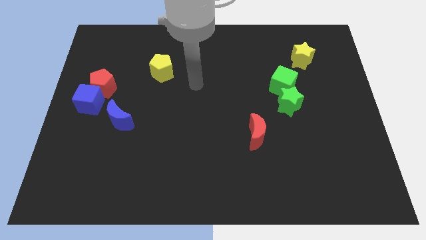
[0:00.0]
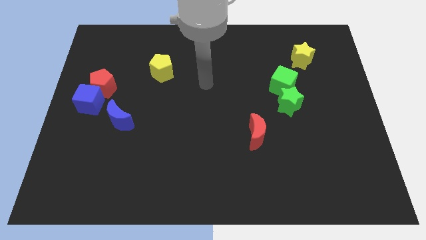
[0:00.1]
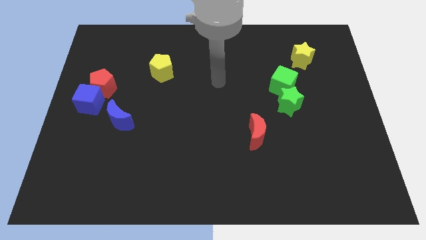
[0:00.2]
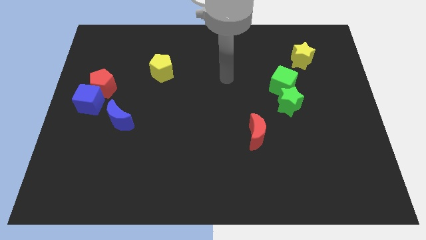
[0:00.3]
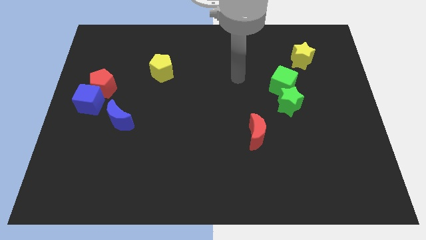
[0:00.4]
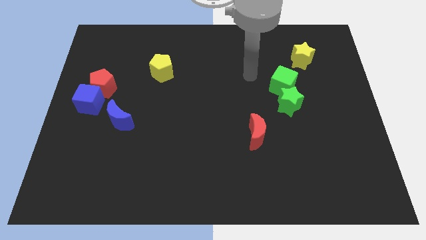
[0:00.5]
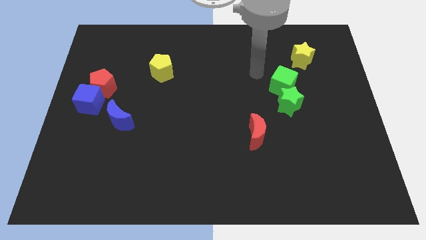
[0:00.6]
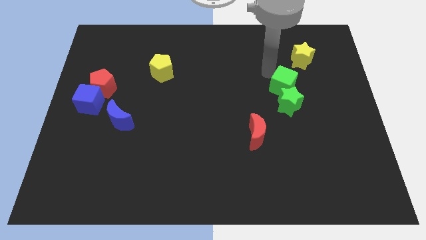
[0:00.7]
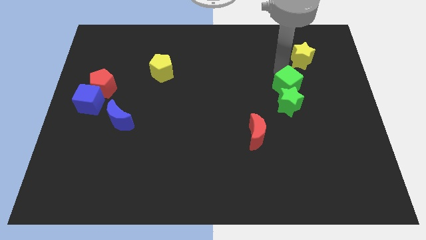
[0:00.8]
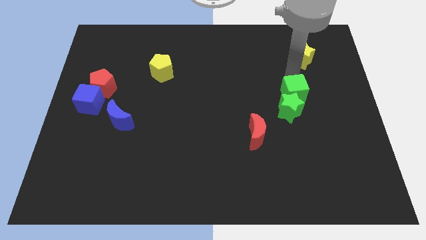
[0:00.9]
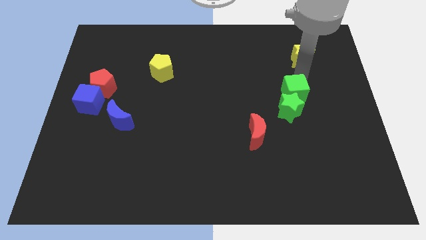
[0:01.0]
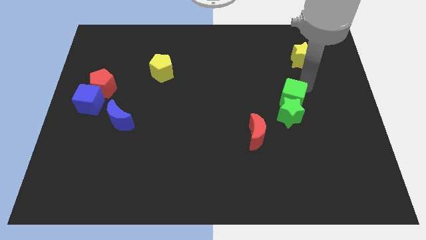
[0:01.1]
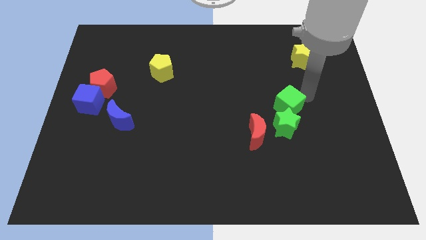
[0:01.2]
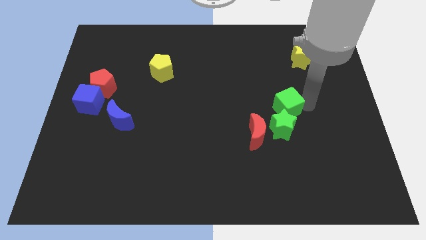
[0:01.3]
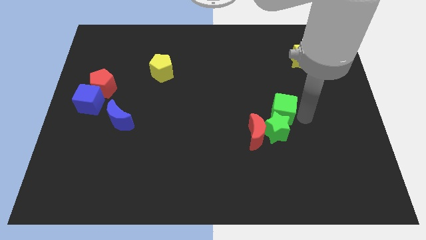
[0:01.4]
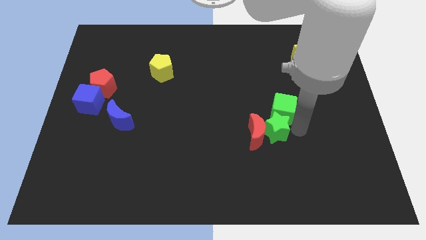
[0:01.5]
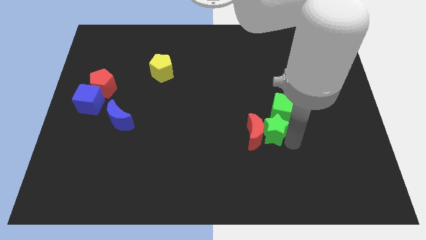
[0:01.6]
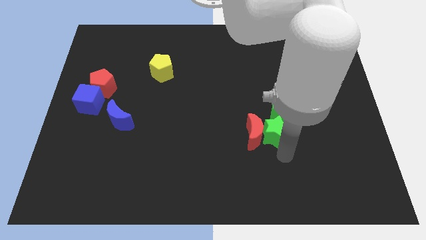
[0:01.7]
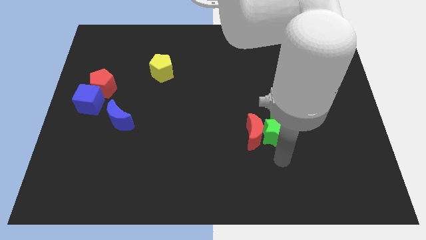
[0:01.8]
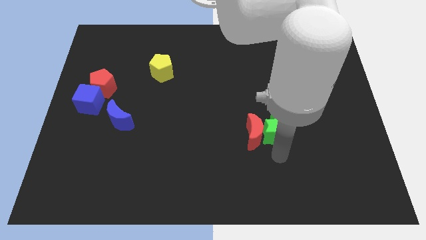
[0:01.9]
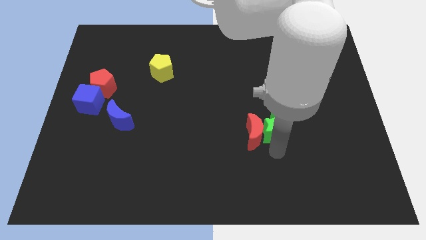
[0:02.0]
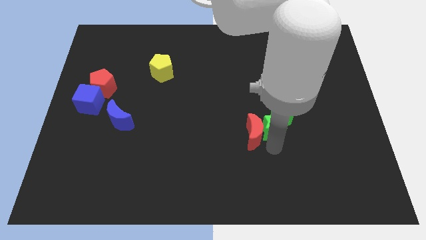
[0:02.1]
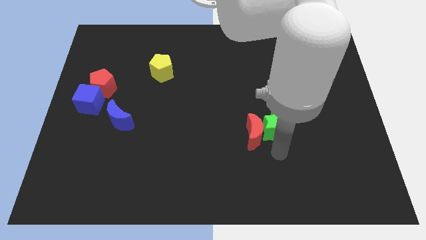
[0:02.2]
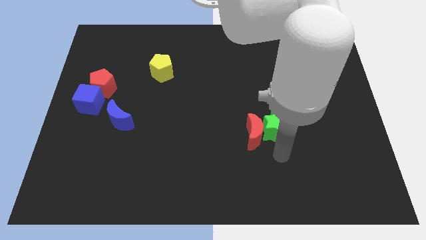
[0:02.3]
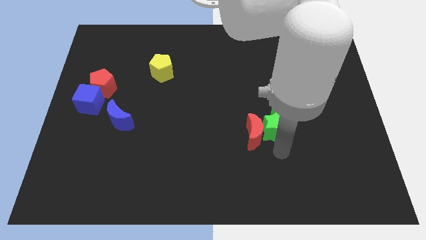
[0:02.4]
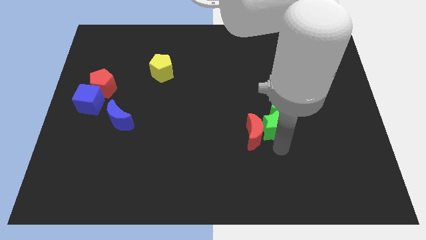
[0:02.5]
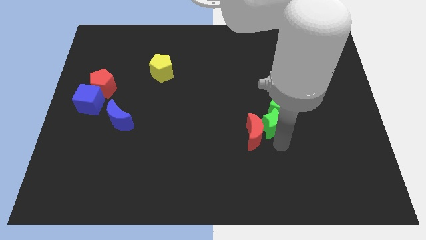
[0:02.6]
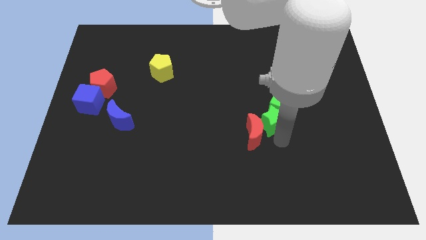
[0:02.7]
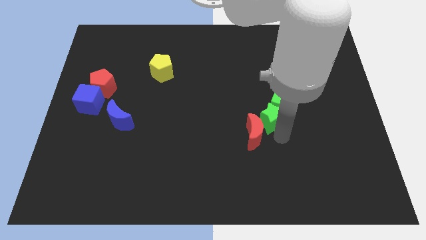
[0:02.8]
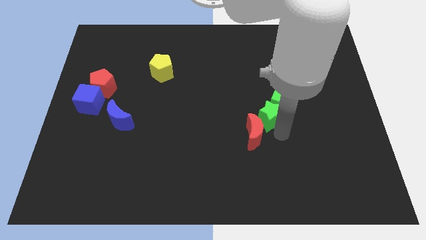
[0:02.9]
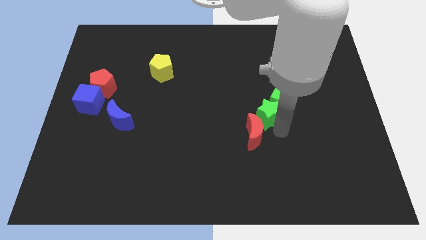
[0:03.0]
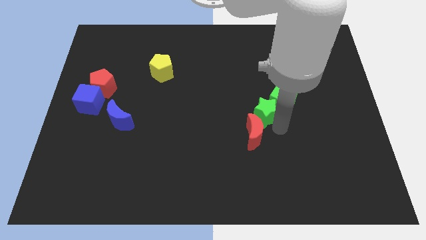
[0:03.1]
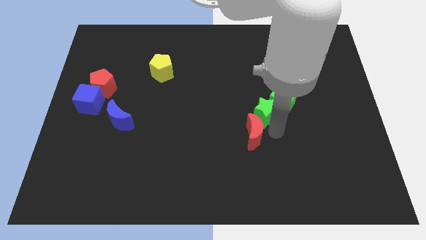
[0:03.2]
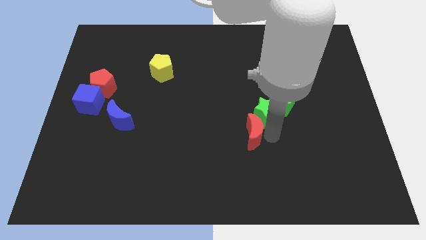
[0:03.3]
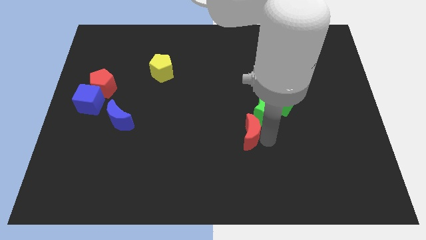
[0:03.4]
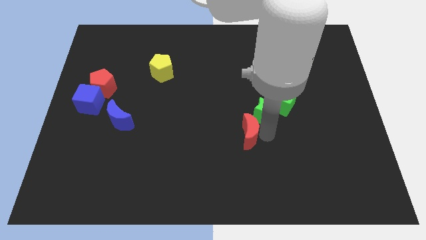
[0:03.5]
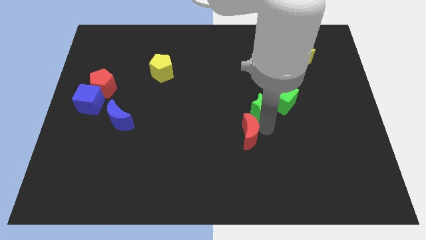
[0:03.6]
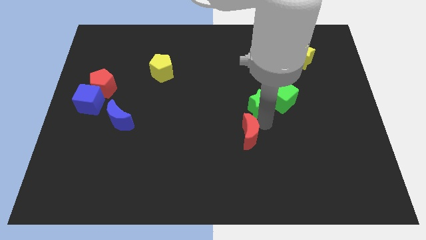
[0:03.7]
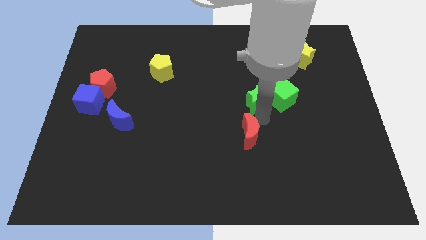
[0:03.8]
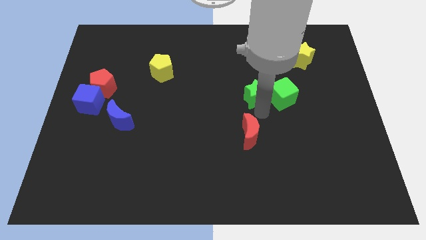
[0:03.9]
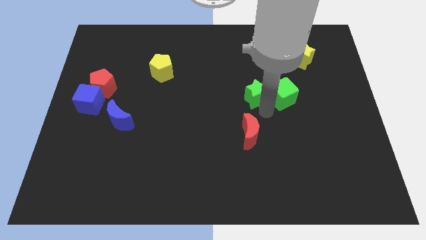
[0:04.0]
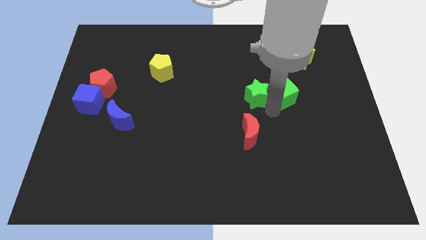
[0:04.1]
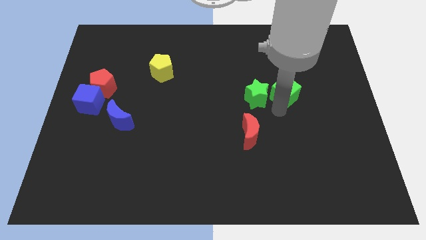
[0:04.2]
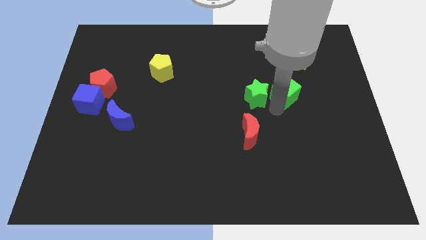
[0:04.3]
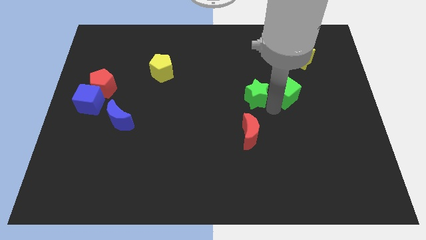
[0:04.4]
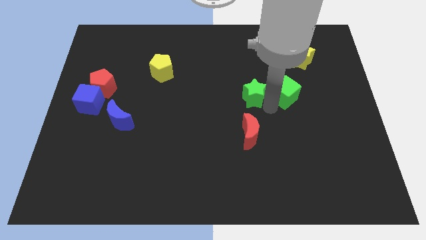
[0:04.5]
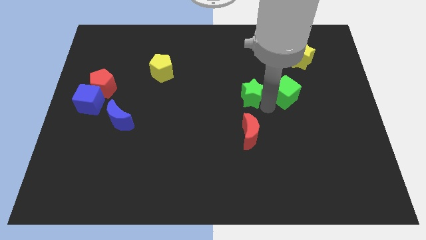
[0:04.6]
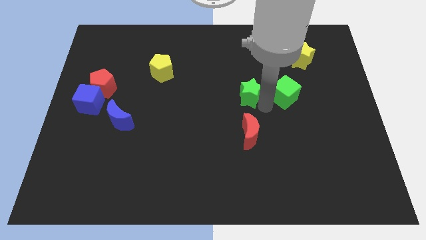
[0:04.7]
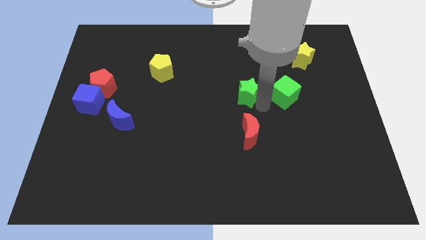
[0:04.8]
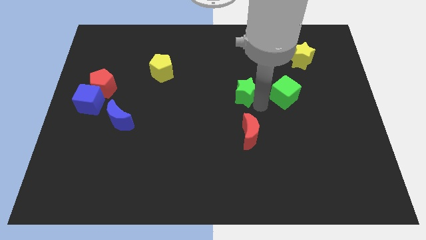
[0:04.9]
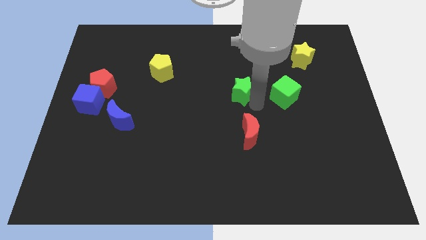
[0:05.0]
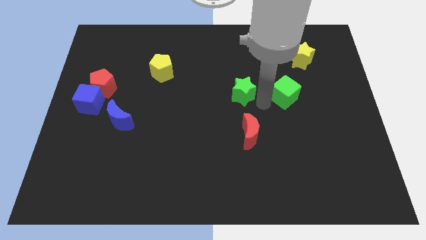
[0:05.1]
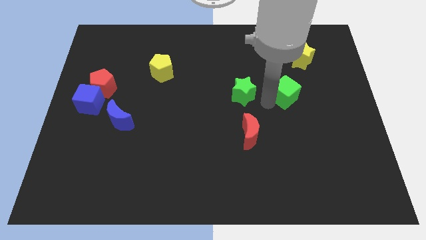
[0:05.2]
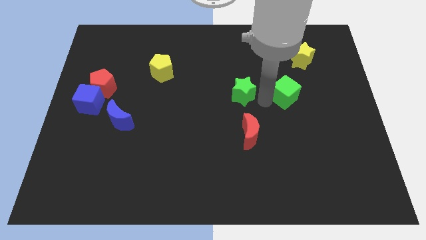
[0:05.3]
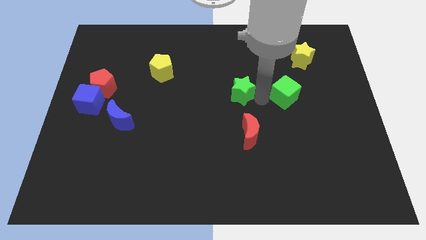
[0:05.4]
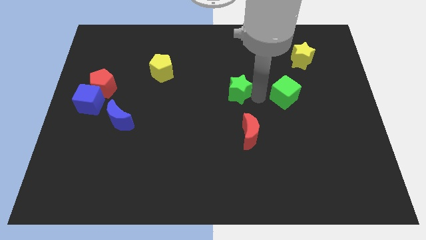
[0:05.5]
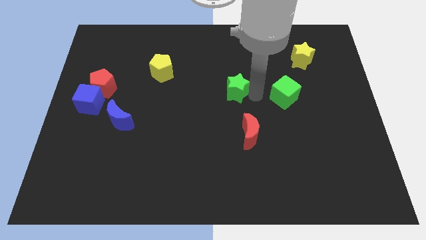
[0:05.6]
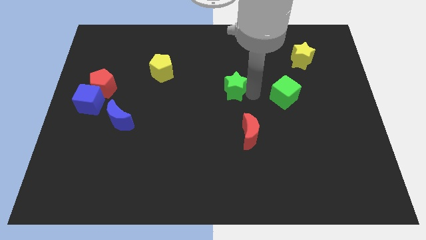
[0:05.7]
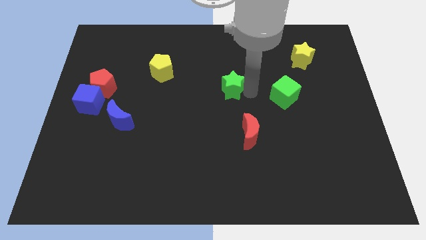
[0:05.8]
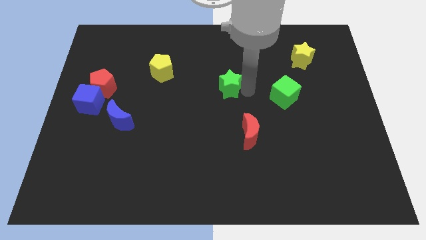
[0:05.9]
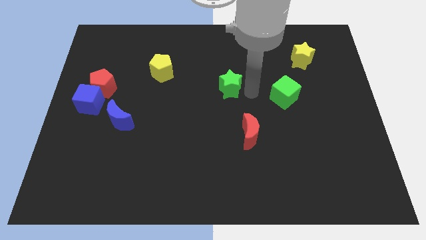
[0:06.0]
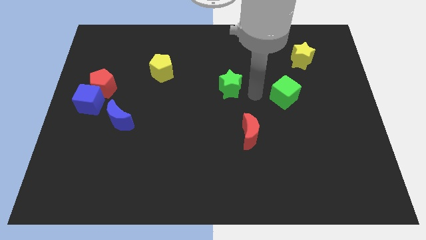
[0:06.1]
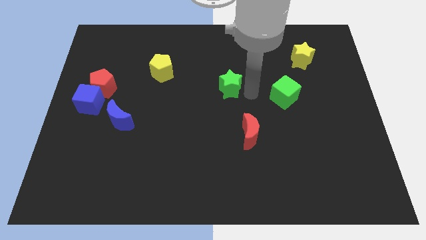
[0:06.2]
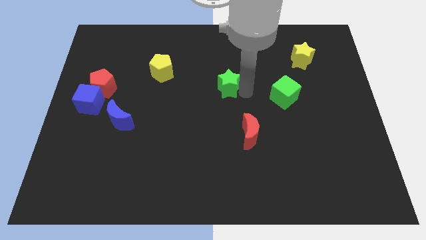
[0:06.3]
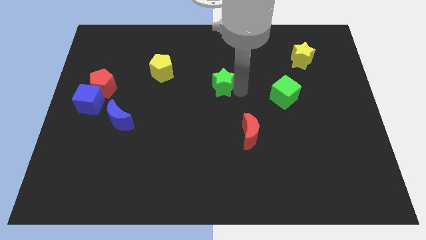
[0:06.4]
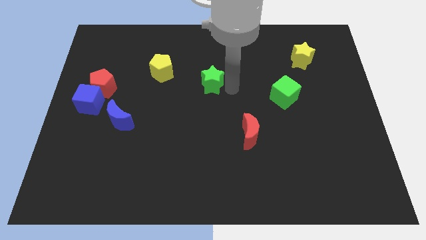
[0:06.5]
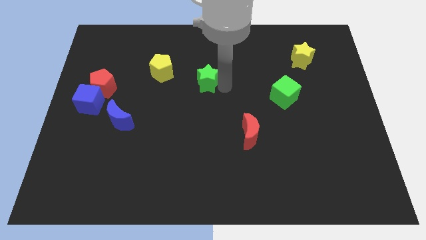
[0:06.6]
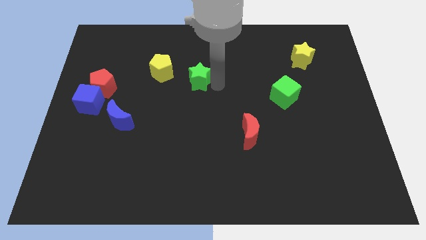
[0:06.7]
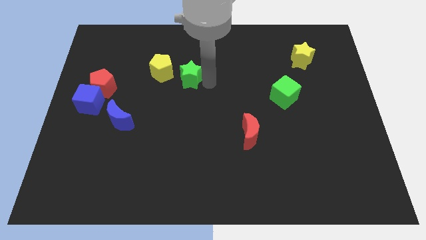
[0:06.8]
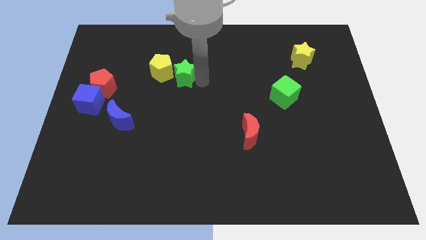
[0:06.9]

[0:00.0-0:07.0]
put the green star next to the yellow pentagon
